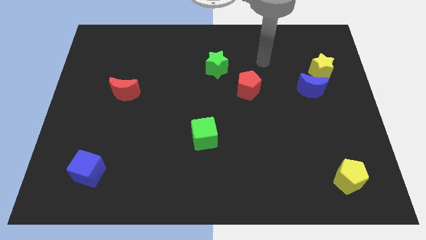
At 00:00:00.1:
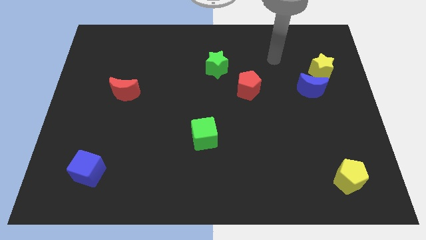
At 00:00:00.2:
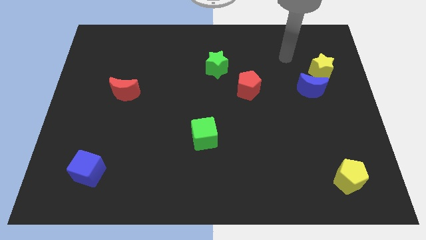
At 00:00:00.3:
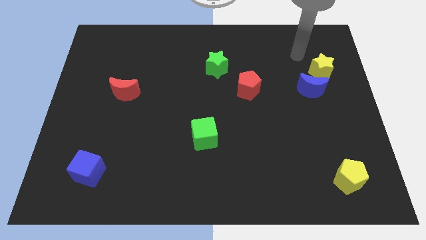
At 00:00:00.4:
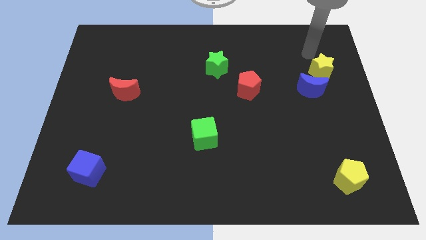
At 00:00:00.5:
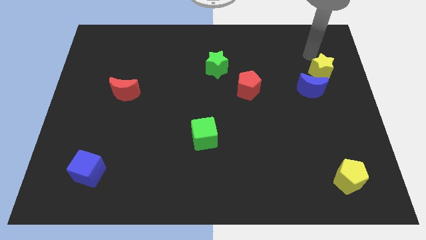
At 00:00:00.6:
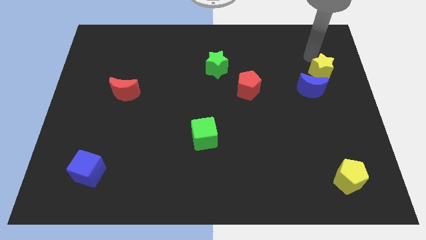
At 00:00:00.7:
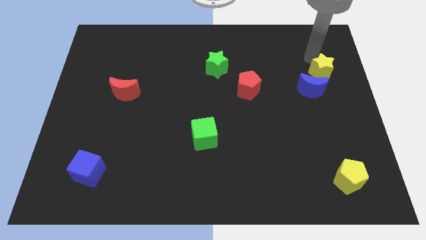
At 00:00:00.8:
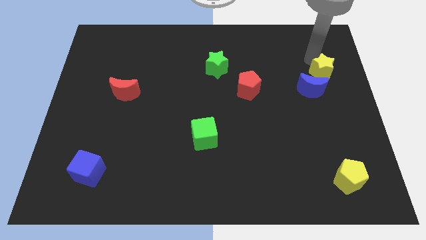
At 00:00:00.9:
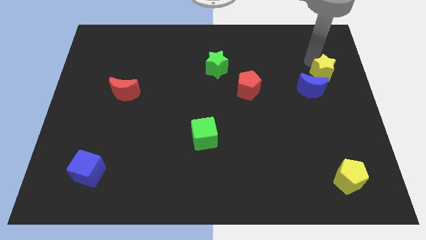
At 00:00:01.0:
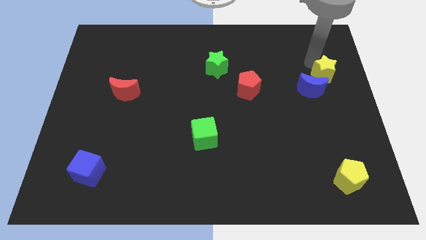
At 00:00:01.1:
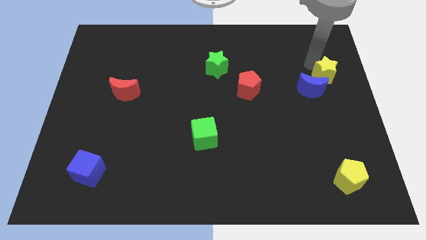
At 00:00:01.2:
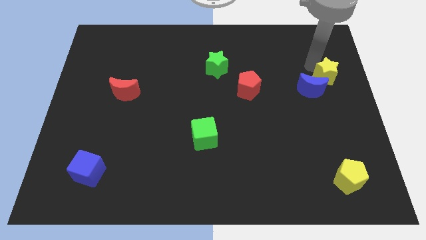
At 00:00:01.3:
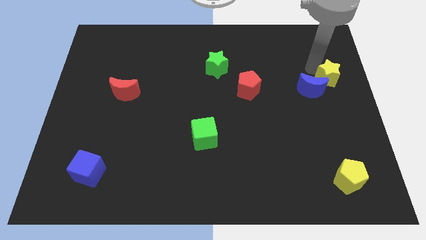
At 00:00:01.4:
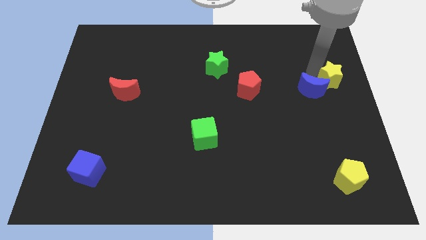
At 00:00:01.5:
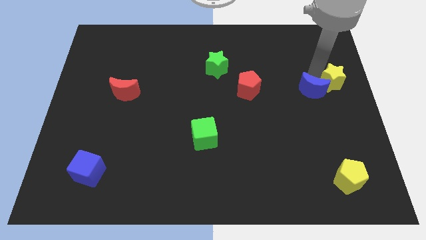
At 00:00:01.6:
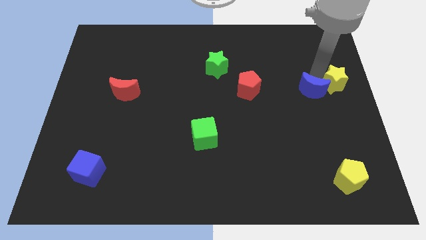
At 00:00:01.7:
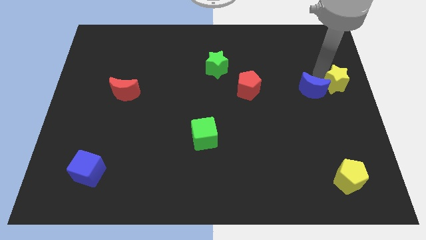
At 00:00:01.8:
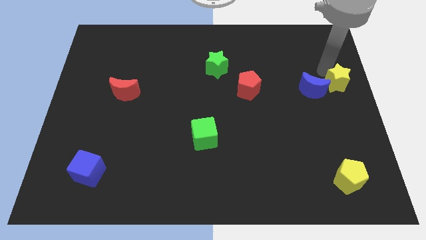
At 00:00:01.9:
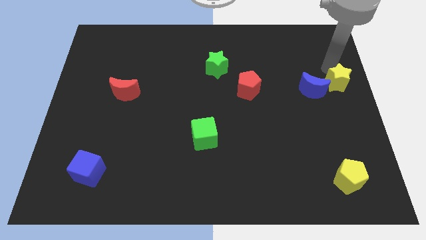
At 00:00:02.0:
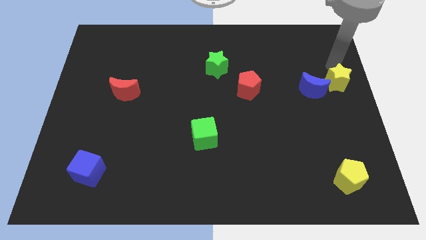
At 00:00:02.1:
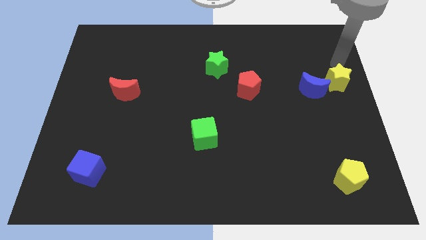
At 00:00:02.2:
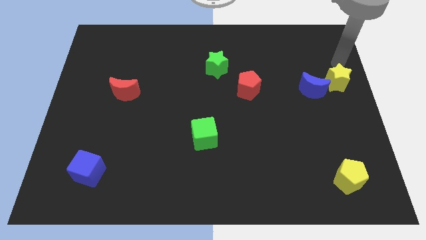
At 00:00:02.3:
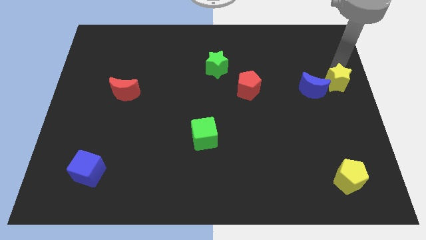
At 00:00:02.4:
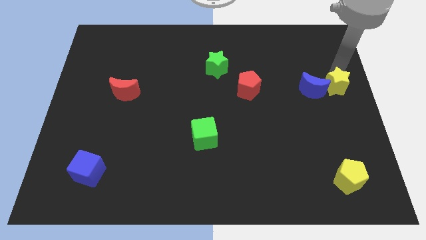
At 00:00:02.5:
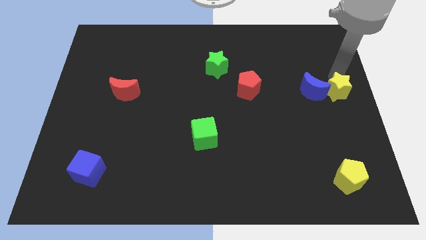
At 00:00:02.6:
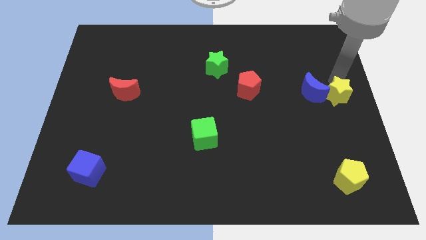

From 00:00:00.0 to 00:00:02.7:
move the yellow star a little bit downwards

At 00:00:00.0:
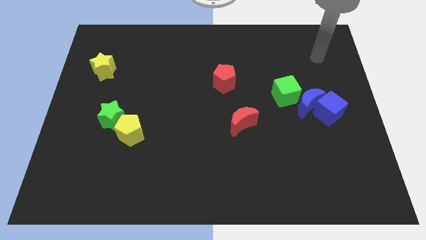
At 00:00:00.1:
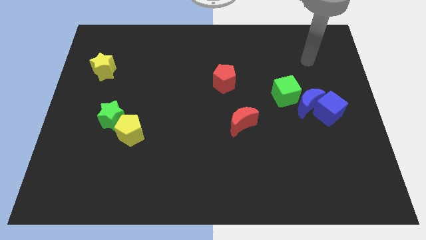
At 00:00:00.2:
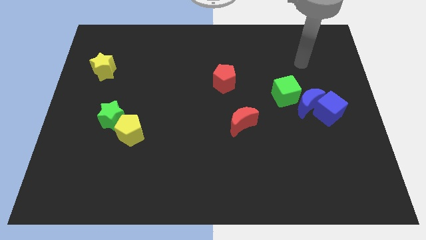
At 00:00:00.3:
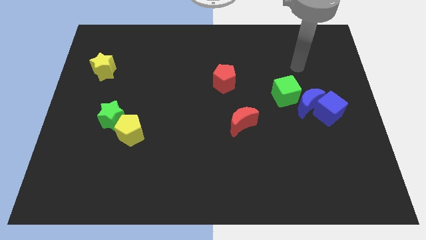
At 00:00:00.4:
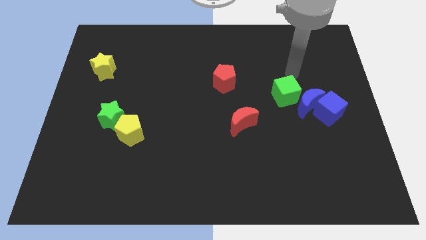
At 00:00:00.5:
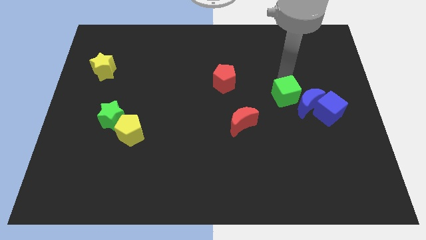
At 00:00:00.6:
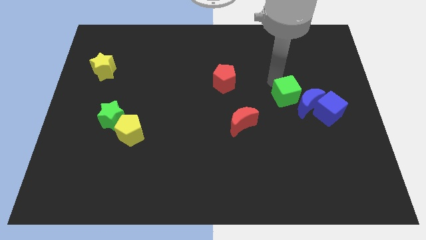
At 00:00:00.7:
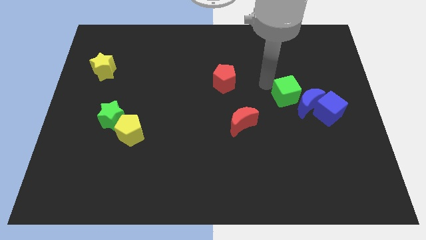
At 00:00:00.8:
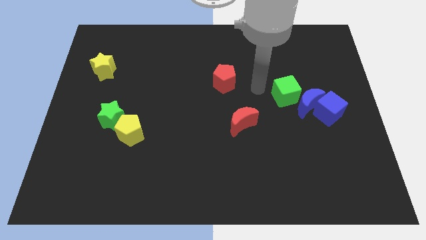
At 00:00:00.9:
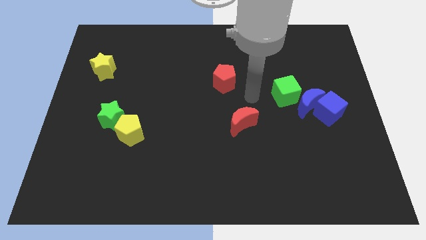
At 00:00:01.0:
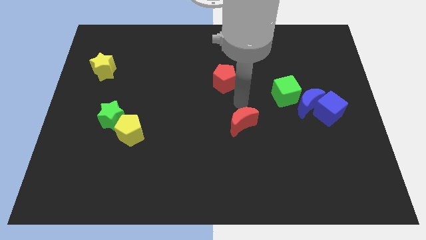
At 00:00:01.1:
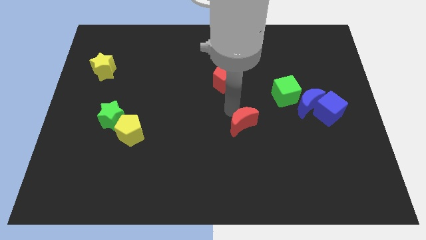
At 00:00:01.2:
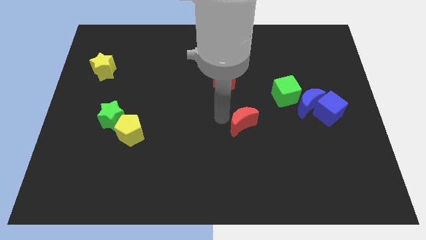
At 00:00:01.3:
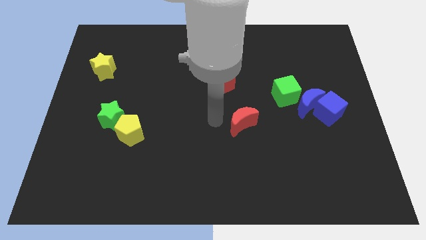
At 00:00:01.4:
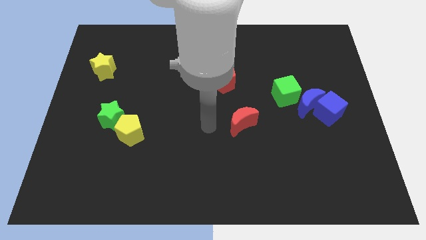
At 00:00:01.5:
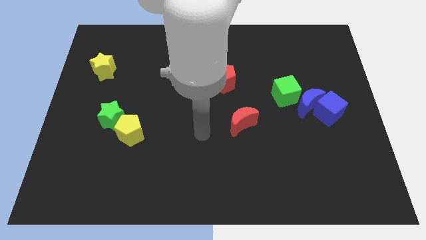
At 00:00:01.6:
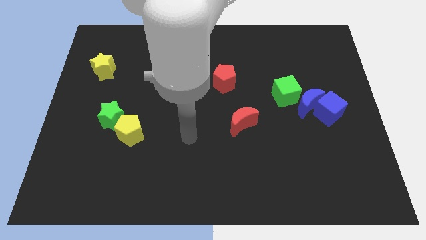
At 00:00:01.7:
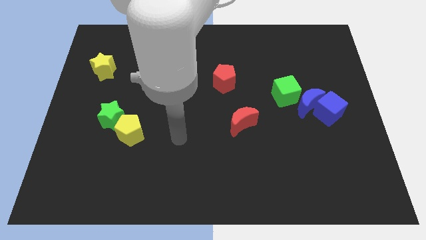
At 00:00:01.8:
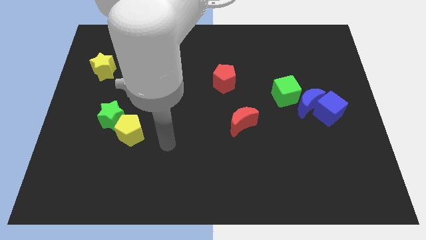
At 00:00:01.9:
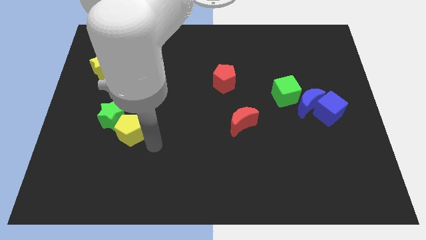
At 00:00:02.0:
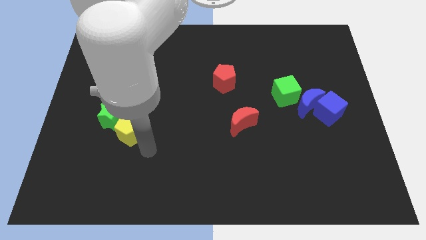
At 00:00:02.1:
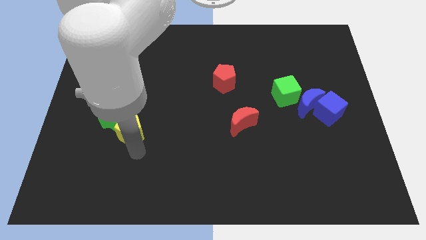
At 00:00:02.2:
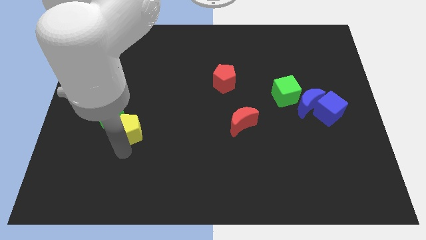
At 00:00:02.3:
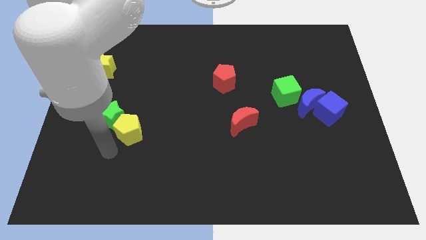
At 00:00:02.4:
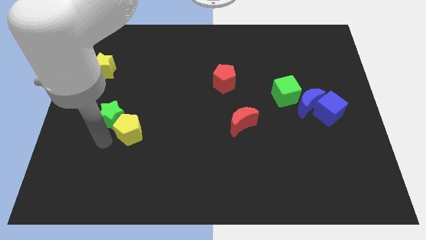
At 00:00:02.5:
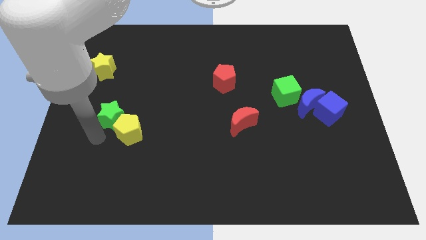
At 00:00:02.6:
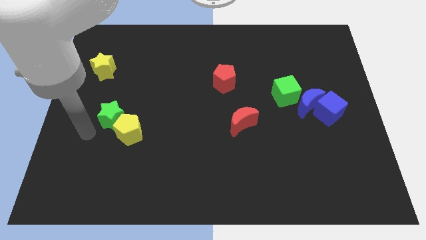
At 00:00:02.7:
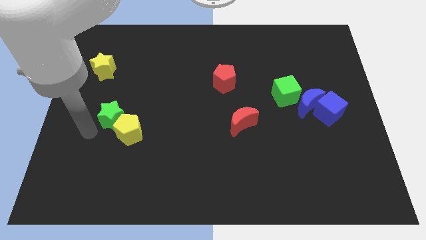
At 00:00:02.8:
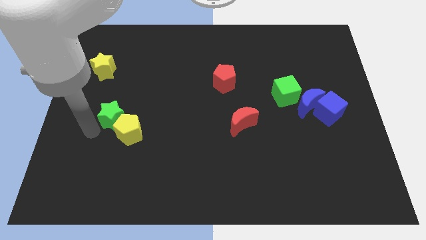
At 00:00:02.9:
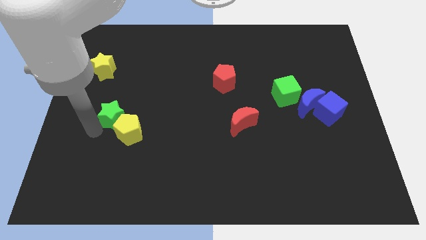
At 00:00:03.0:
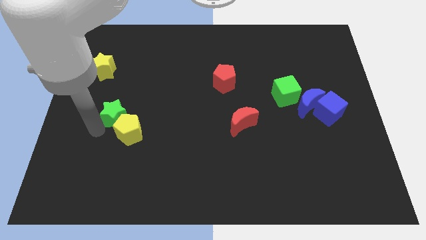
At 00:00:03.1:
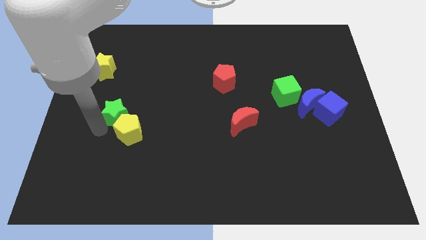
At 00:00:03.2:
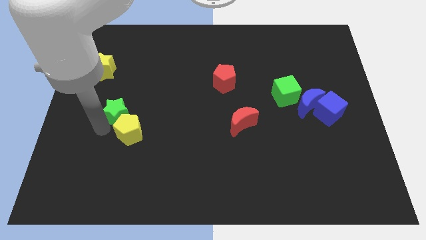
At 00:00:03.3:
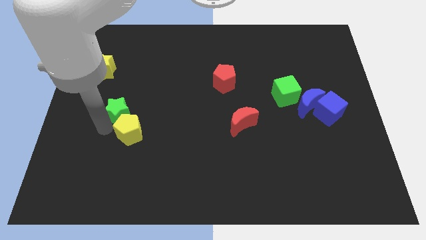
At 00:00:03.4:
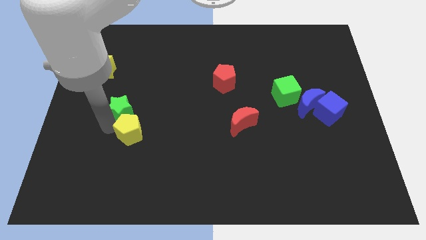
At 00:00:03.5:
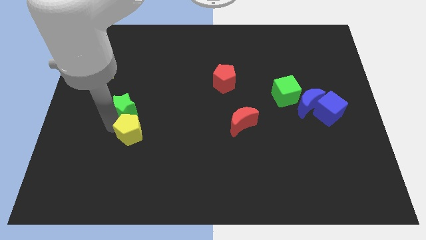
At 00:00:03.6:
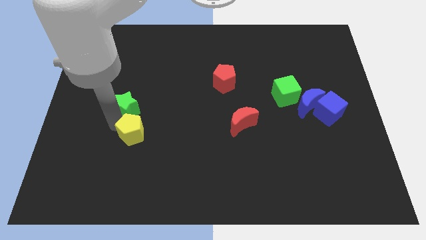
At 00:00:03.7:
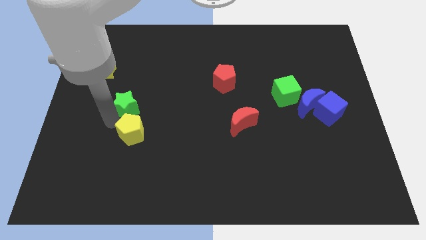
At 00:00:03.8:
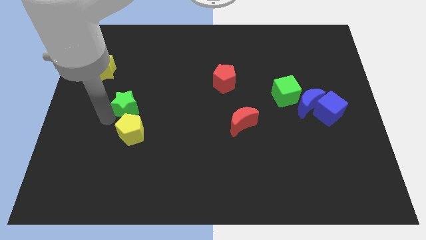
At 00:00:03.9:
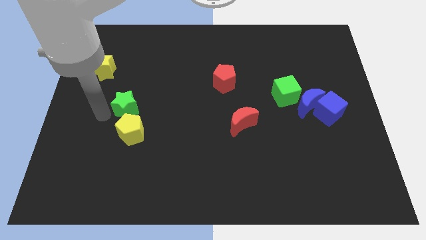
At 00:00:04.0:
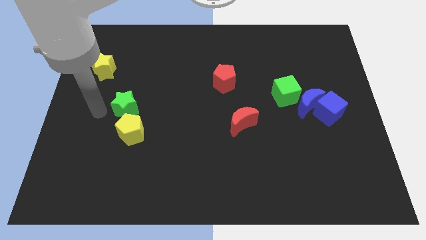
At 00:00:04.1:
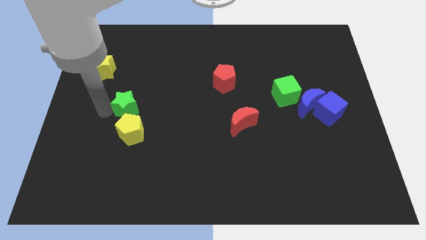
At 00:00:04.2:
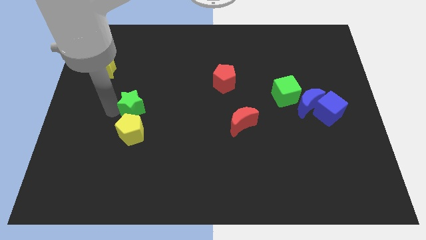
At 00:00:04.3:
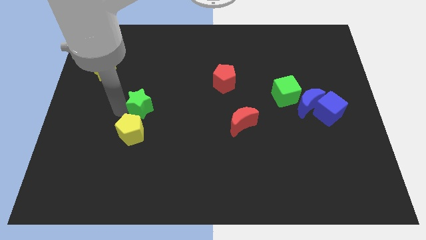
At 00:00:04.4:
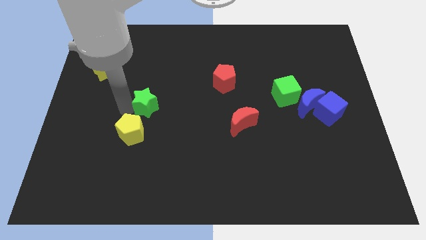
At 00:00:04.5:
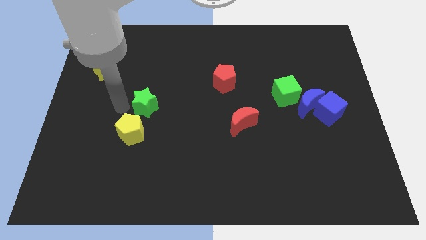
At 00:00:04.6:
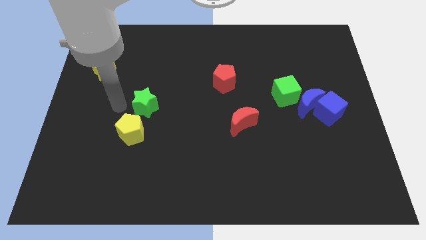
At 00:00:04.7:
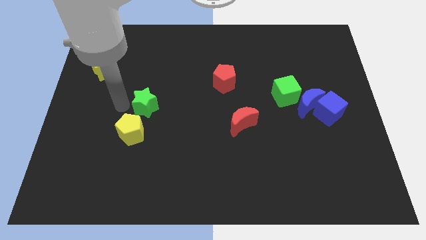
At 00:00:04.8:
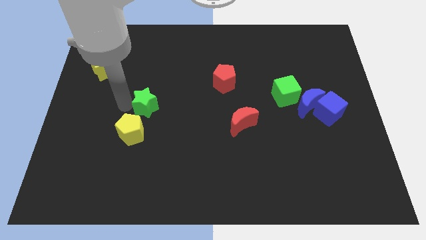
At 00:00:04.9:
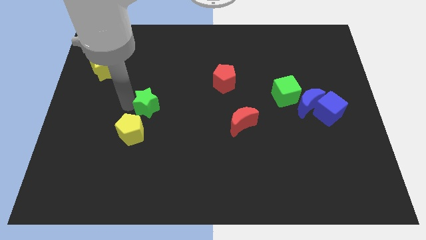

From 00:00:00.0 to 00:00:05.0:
push the green star a bit right

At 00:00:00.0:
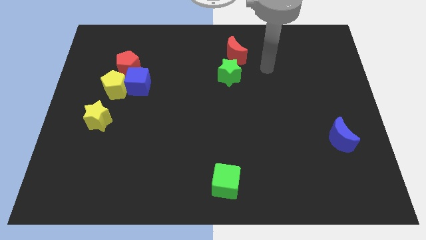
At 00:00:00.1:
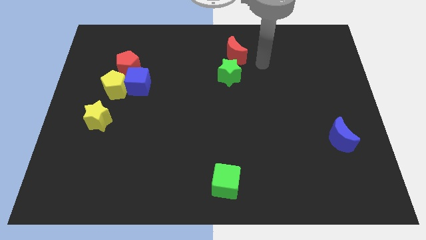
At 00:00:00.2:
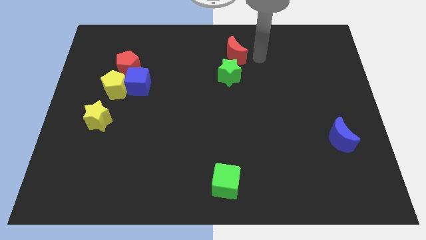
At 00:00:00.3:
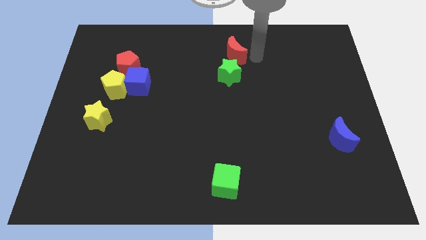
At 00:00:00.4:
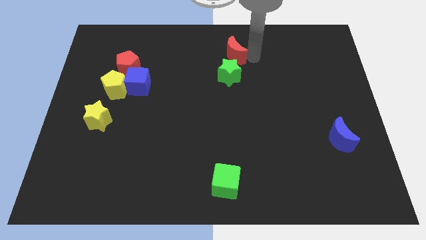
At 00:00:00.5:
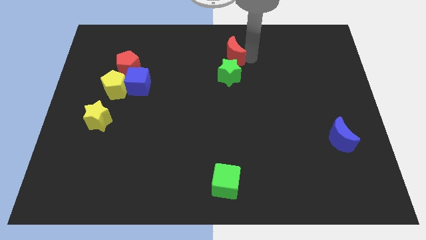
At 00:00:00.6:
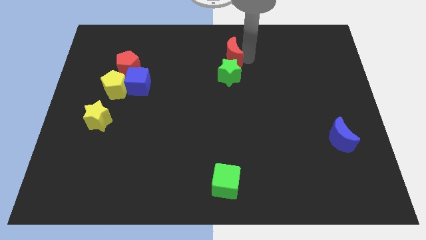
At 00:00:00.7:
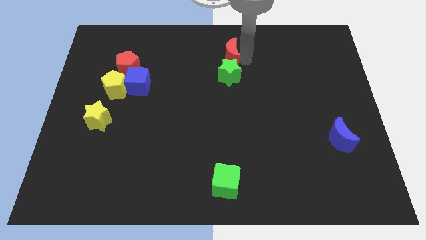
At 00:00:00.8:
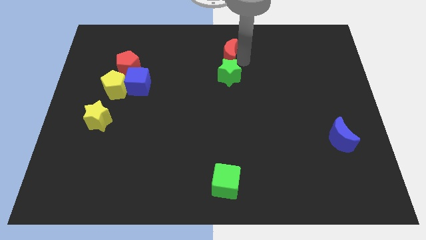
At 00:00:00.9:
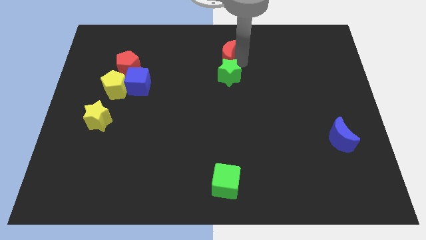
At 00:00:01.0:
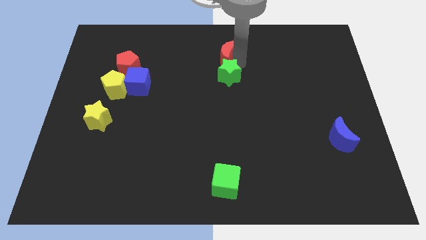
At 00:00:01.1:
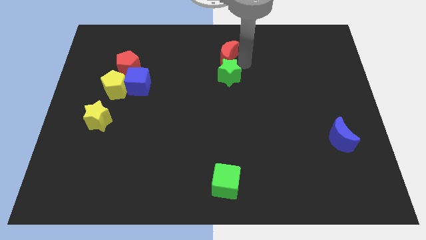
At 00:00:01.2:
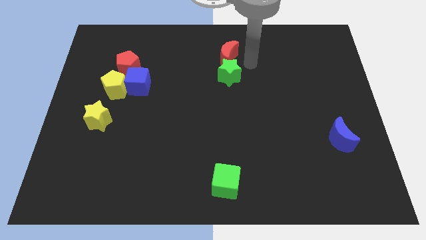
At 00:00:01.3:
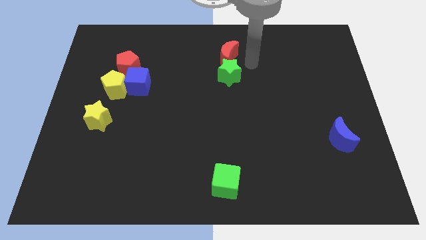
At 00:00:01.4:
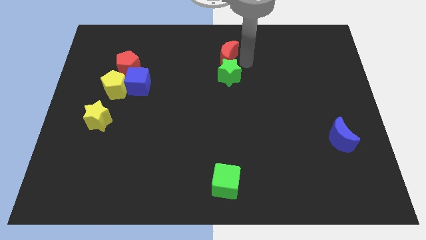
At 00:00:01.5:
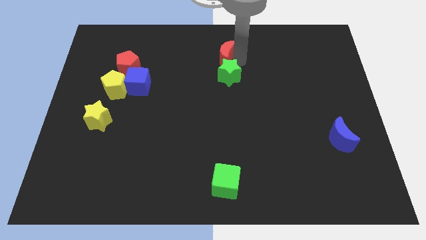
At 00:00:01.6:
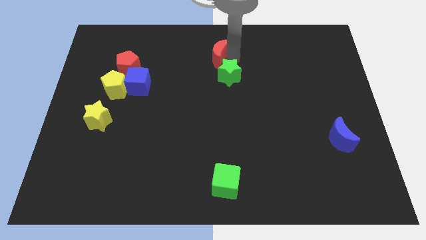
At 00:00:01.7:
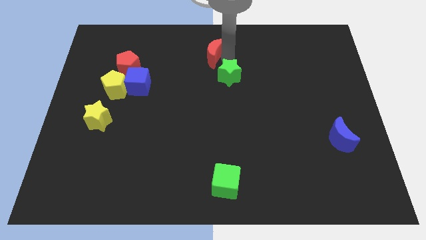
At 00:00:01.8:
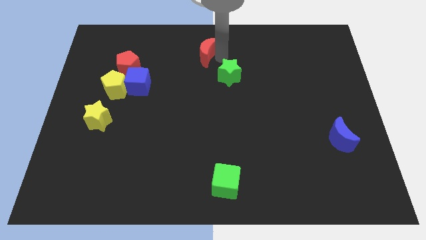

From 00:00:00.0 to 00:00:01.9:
slightly push the red moon left
